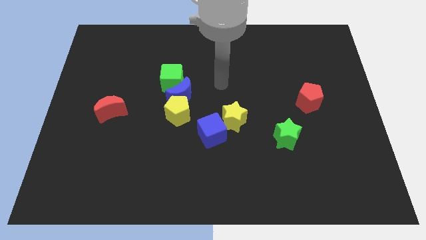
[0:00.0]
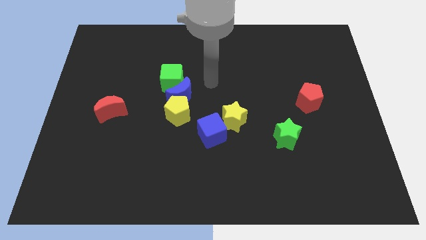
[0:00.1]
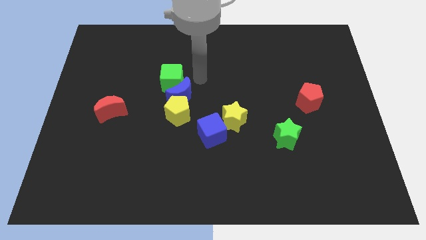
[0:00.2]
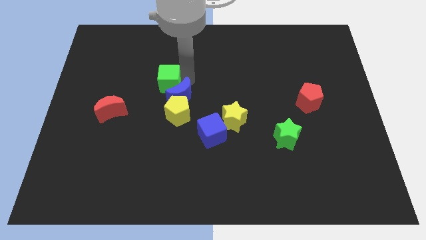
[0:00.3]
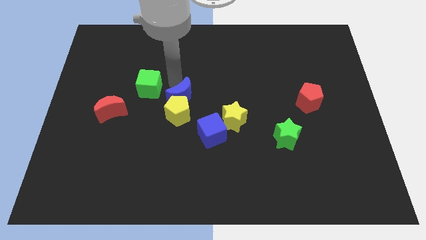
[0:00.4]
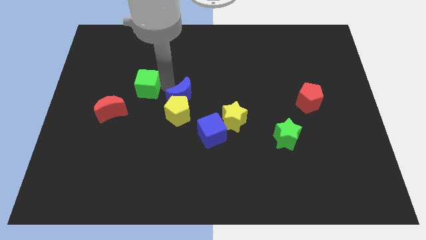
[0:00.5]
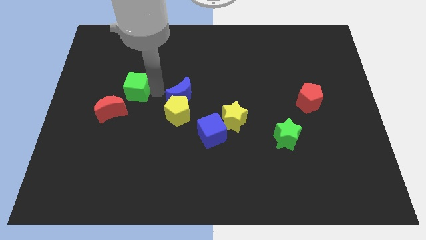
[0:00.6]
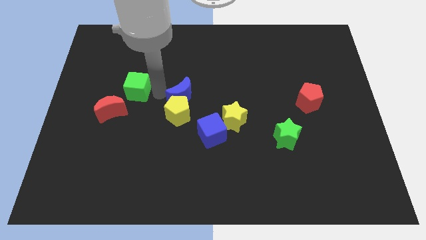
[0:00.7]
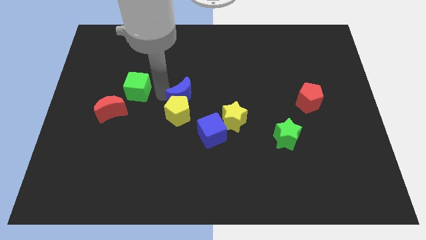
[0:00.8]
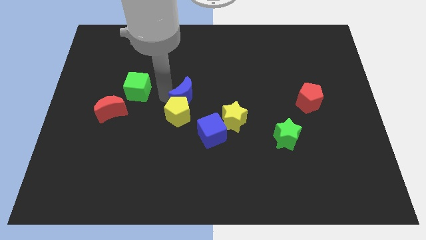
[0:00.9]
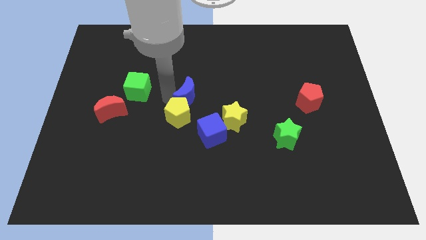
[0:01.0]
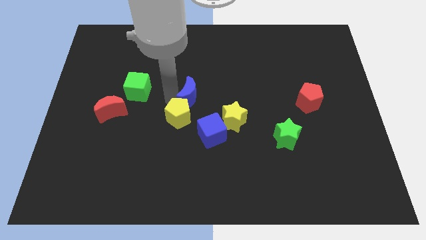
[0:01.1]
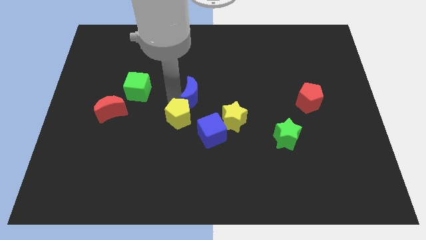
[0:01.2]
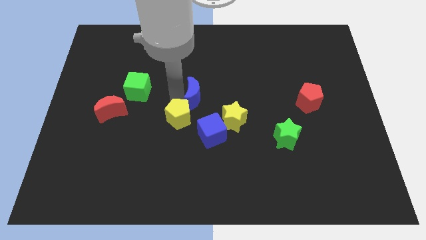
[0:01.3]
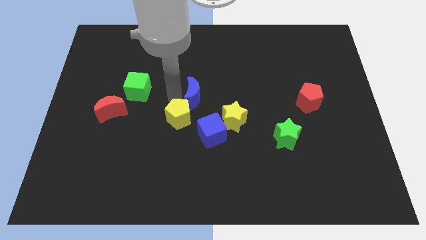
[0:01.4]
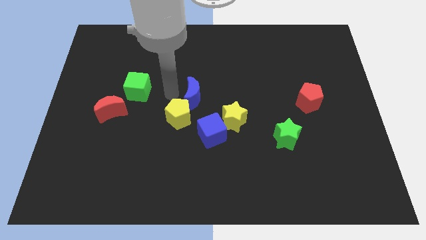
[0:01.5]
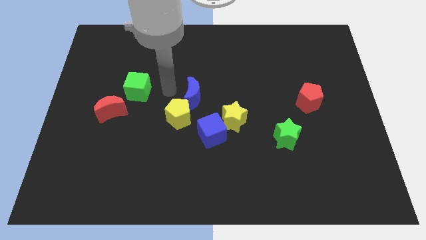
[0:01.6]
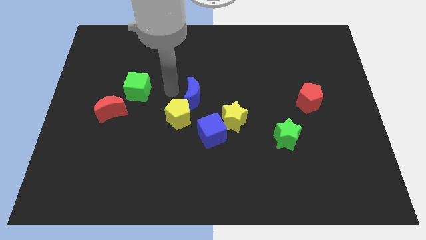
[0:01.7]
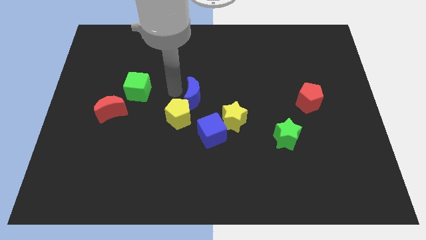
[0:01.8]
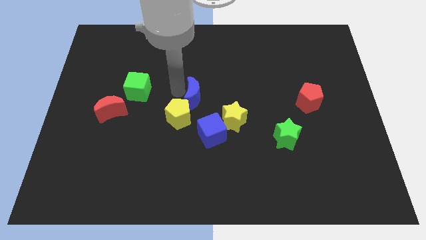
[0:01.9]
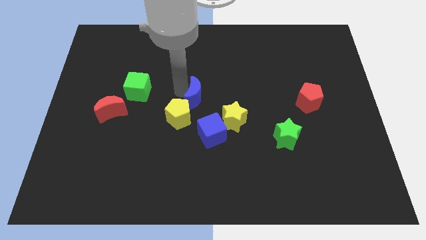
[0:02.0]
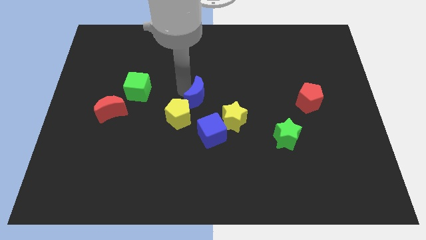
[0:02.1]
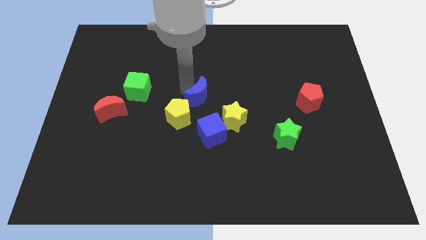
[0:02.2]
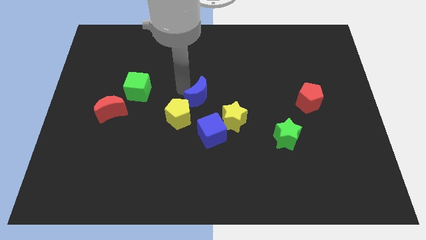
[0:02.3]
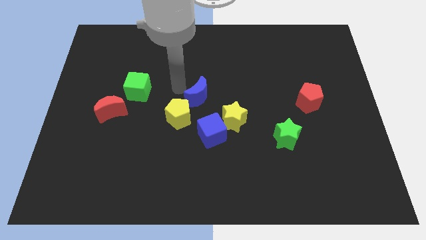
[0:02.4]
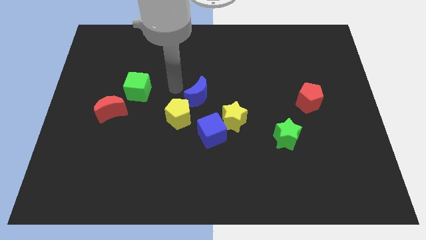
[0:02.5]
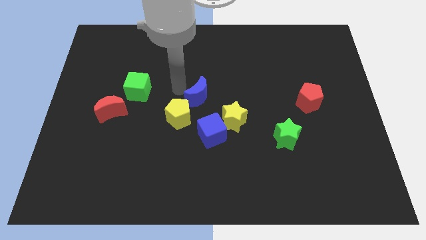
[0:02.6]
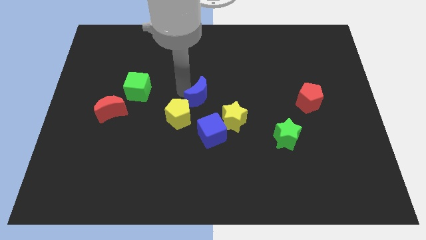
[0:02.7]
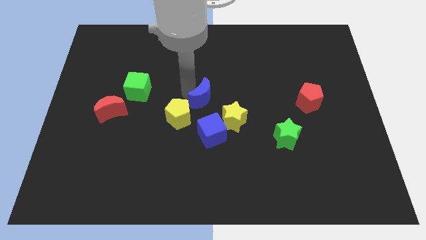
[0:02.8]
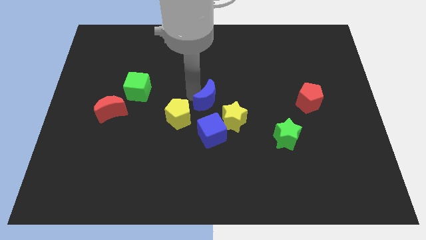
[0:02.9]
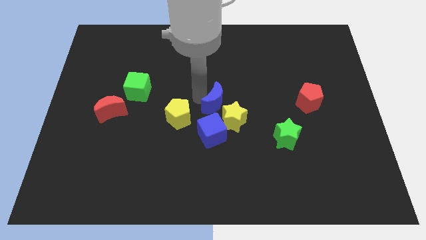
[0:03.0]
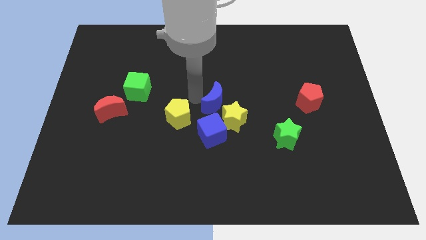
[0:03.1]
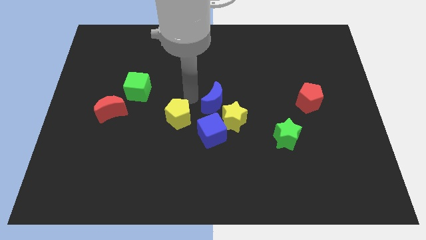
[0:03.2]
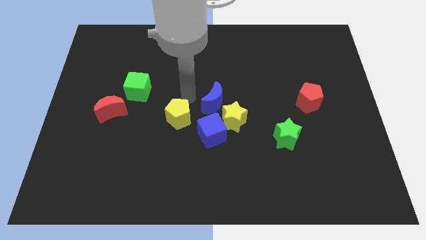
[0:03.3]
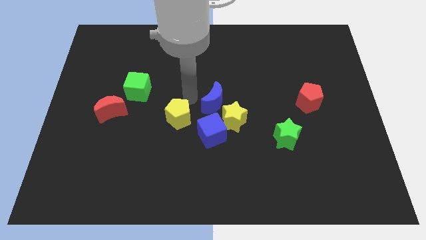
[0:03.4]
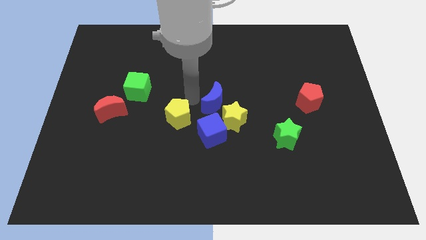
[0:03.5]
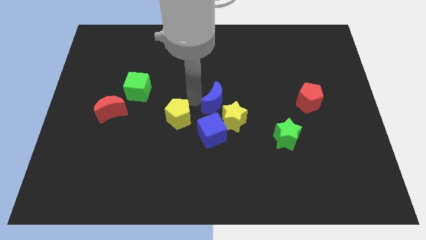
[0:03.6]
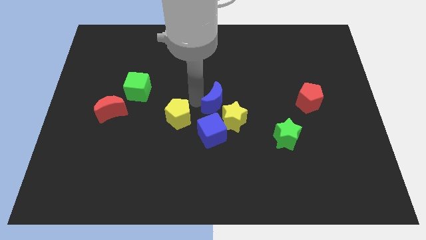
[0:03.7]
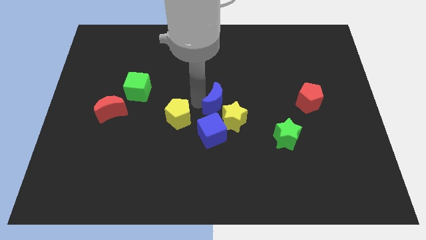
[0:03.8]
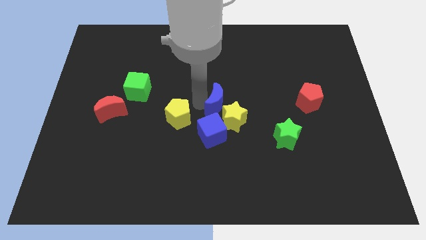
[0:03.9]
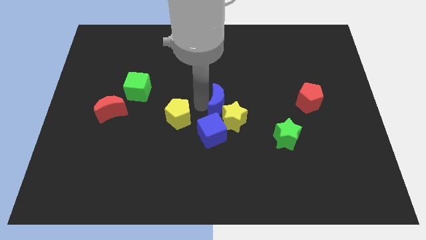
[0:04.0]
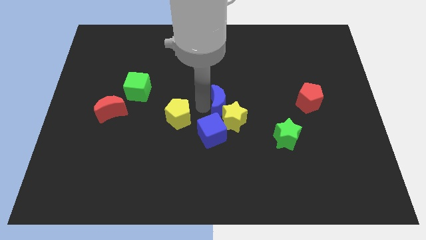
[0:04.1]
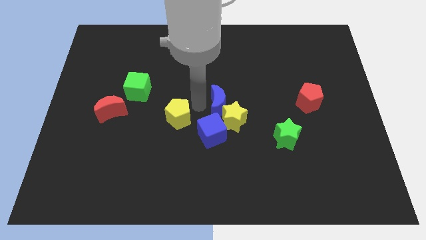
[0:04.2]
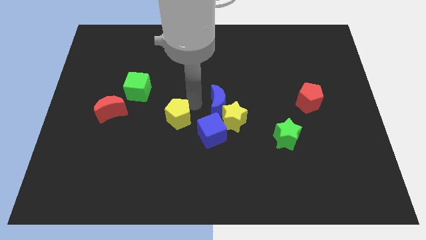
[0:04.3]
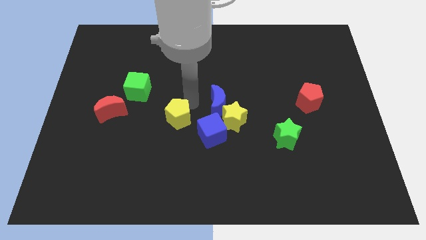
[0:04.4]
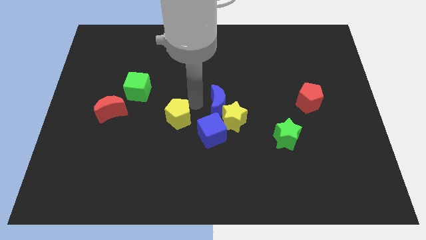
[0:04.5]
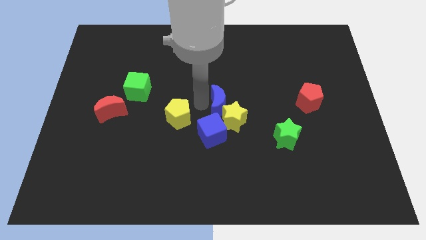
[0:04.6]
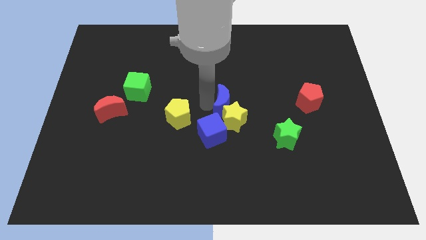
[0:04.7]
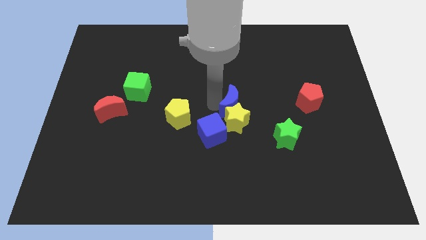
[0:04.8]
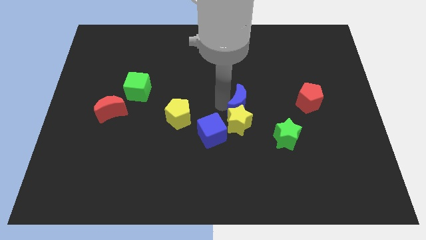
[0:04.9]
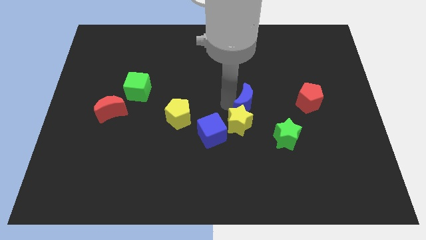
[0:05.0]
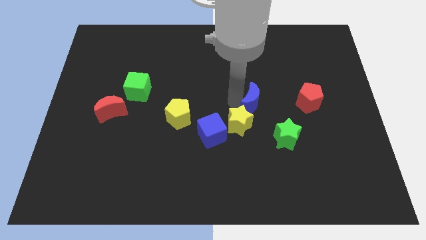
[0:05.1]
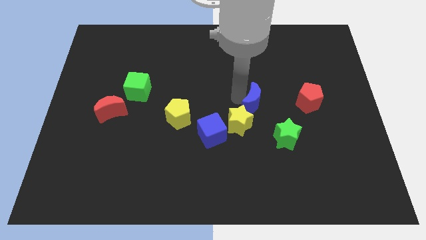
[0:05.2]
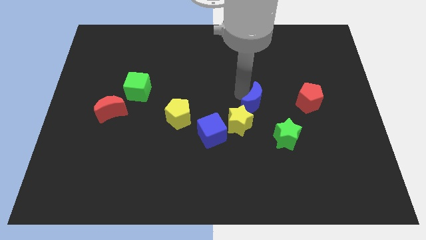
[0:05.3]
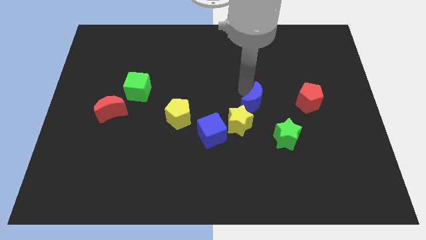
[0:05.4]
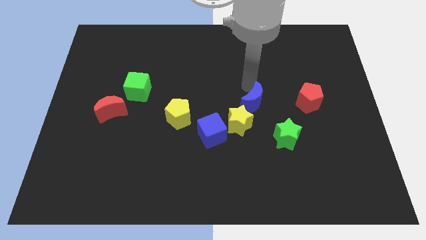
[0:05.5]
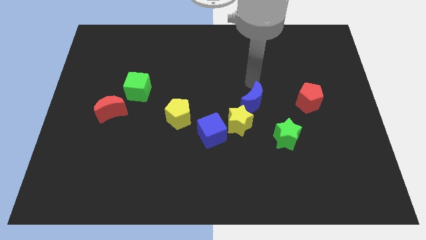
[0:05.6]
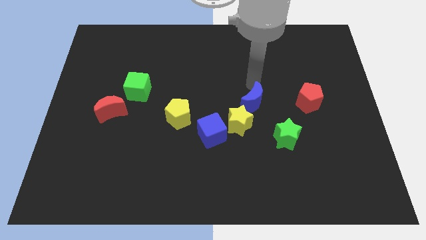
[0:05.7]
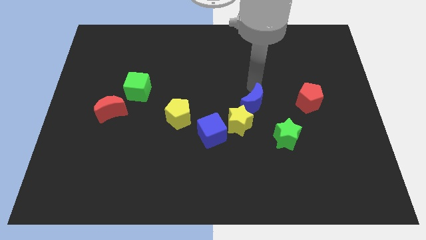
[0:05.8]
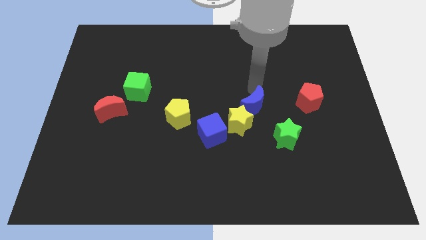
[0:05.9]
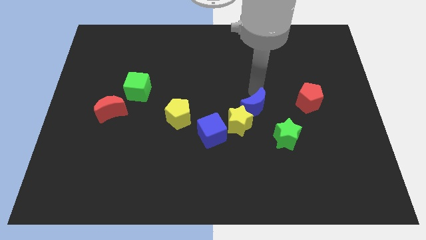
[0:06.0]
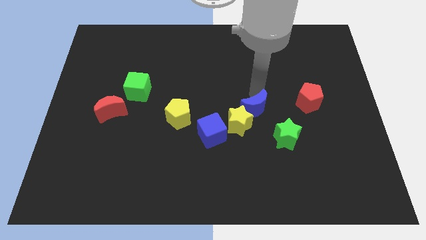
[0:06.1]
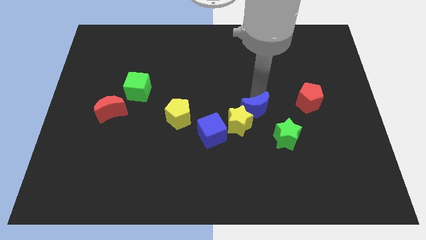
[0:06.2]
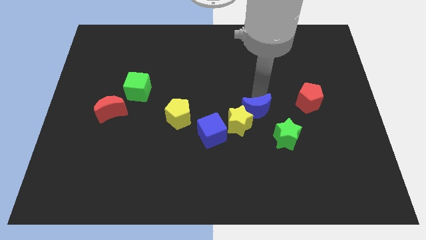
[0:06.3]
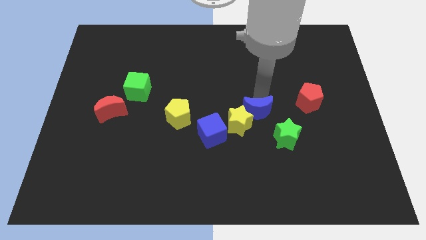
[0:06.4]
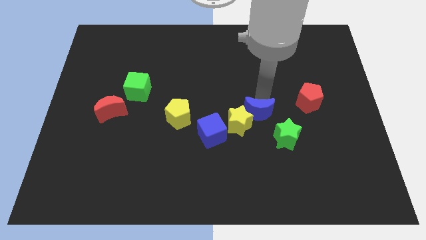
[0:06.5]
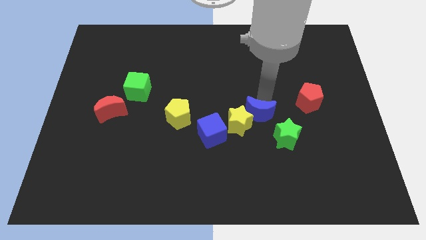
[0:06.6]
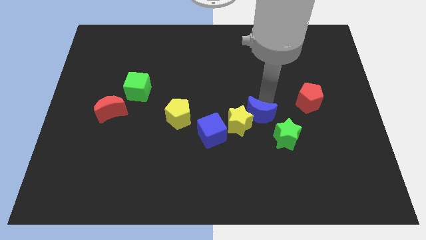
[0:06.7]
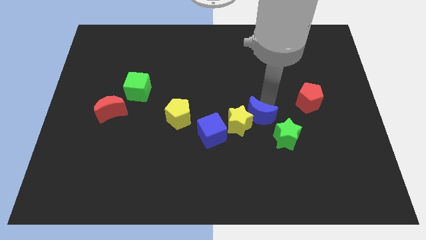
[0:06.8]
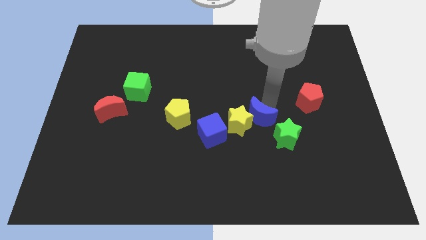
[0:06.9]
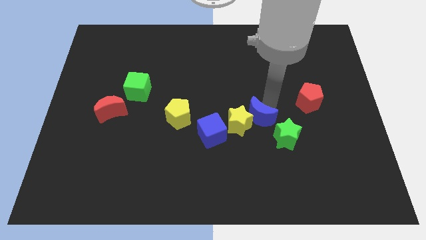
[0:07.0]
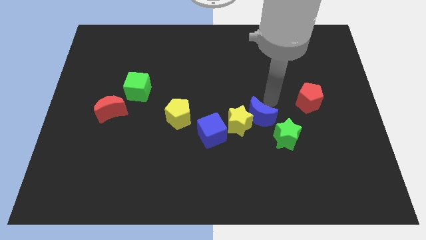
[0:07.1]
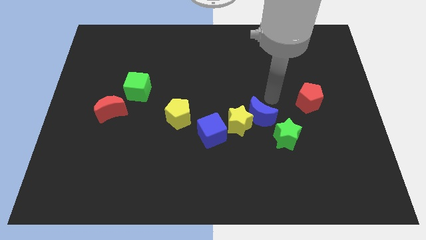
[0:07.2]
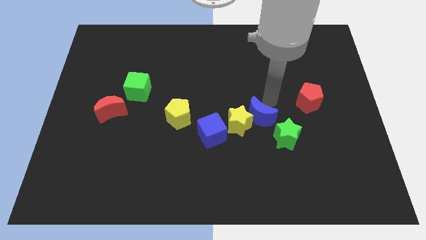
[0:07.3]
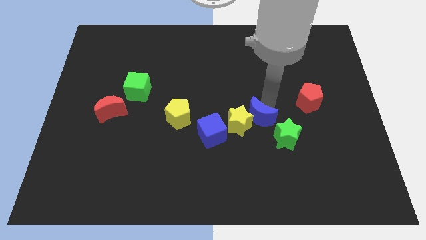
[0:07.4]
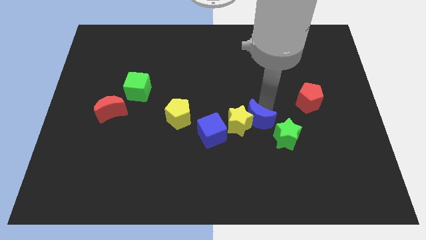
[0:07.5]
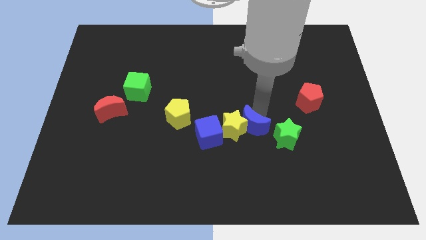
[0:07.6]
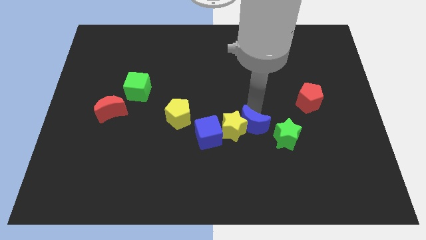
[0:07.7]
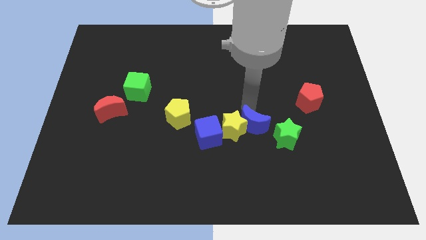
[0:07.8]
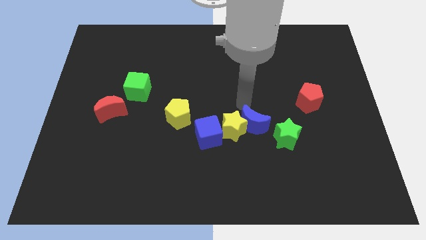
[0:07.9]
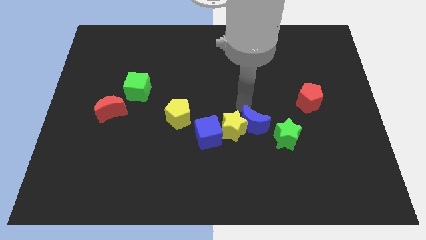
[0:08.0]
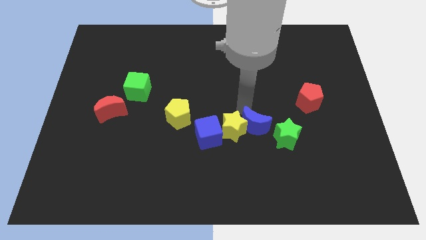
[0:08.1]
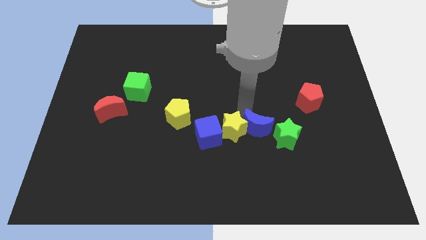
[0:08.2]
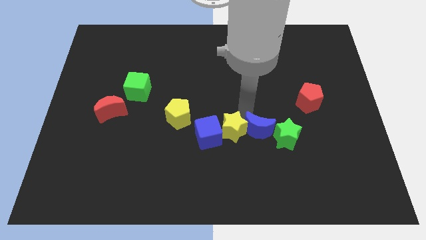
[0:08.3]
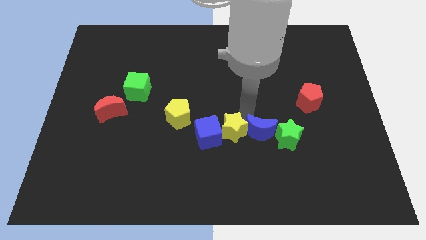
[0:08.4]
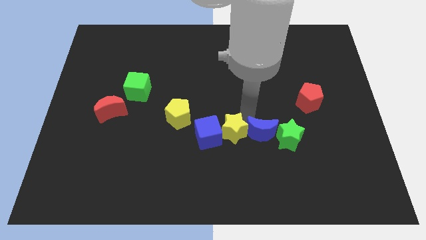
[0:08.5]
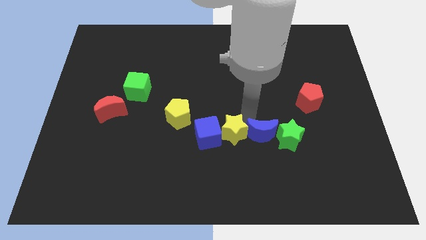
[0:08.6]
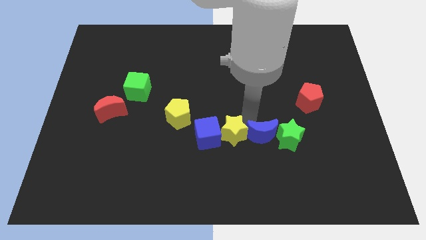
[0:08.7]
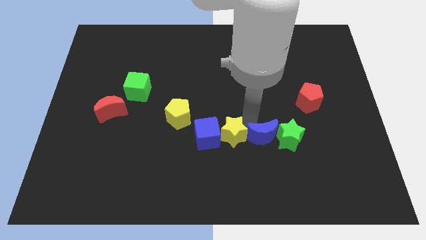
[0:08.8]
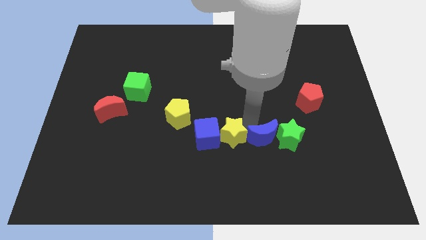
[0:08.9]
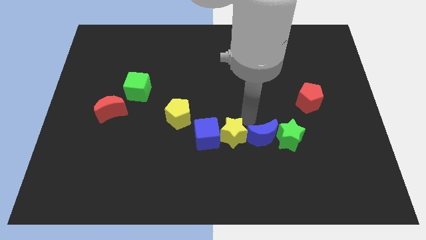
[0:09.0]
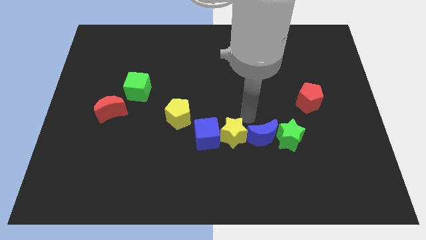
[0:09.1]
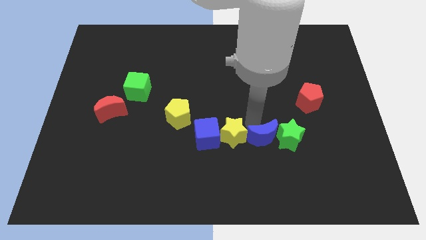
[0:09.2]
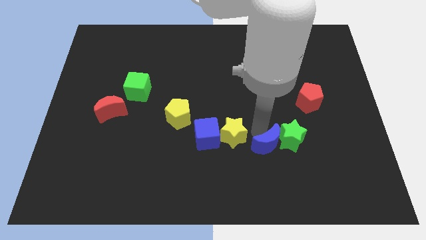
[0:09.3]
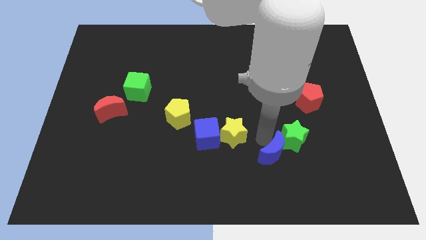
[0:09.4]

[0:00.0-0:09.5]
move the blue moon to the bottom side of the green star
